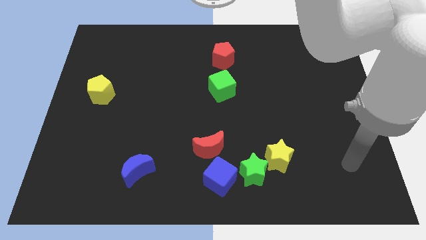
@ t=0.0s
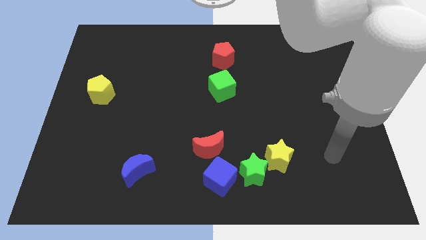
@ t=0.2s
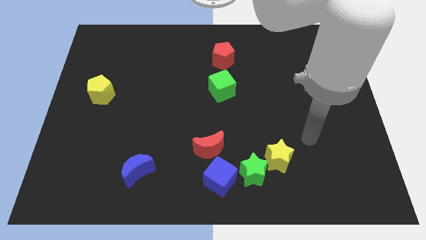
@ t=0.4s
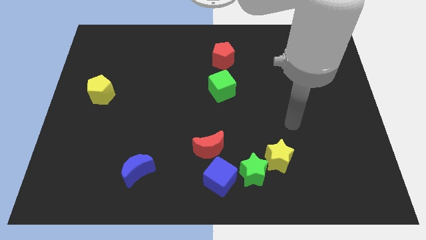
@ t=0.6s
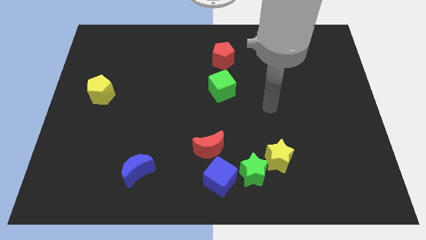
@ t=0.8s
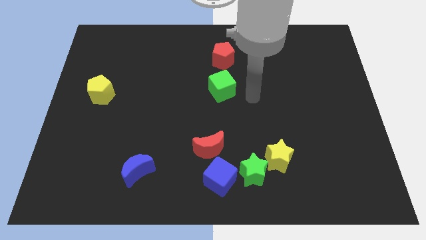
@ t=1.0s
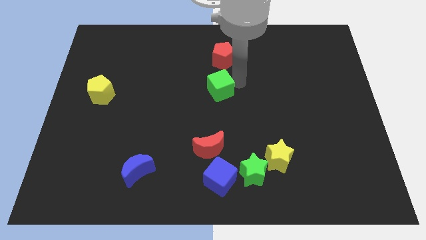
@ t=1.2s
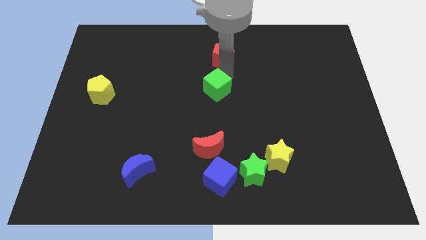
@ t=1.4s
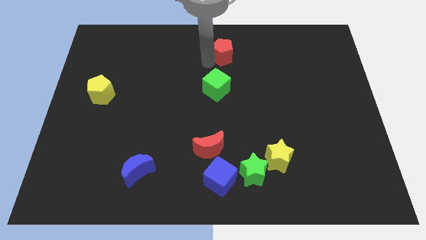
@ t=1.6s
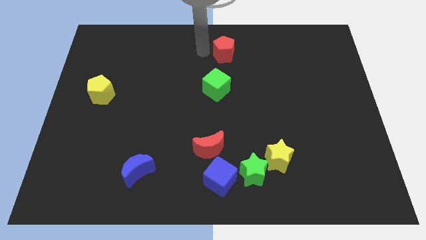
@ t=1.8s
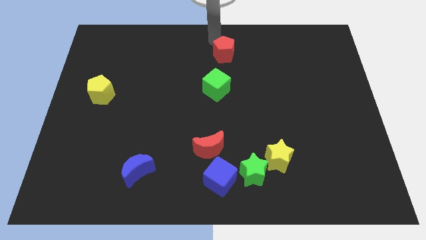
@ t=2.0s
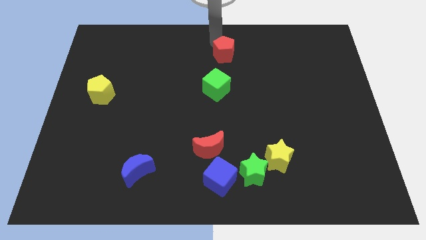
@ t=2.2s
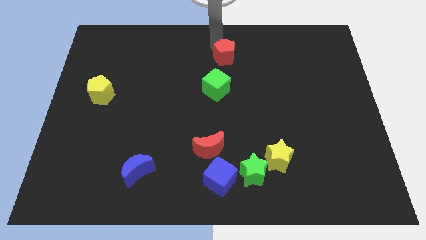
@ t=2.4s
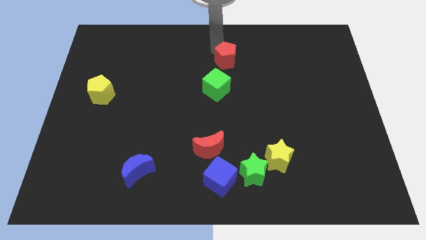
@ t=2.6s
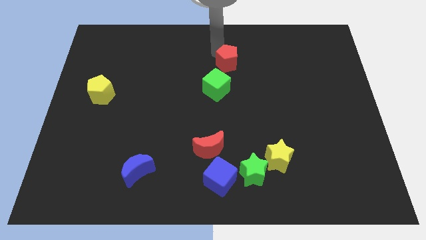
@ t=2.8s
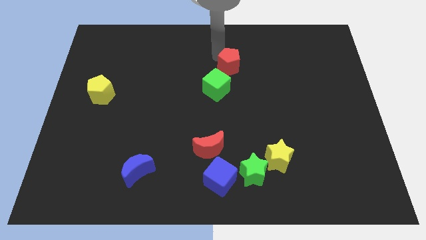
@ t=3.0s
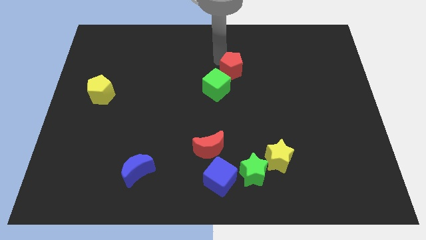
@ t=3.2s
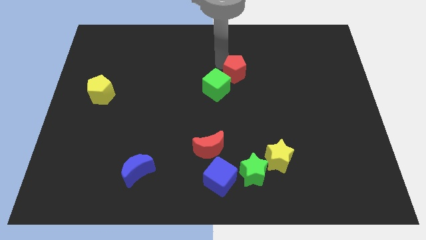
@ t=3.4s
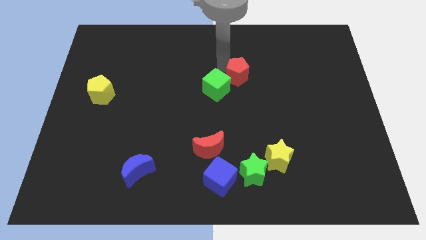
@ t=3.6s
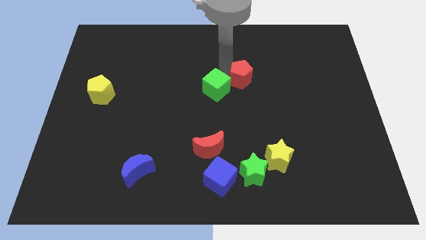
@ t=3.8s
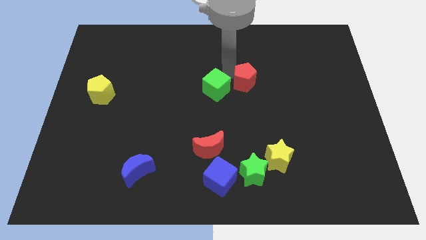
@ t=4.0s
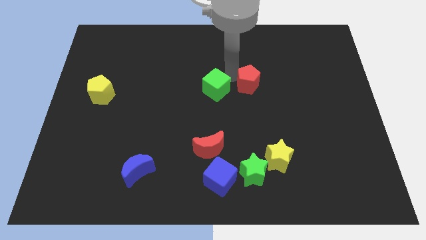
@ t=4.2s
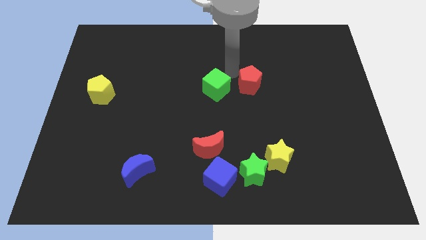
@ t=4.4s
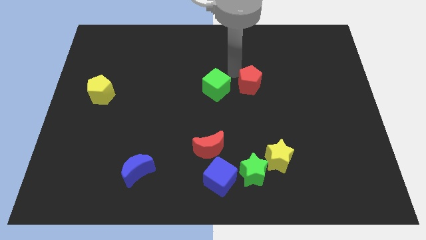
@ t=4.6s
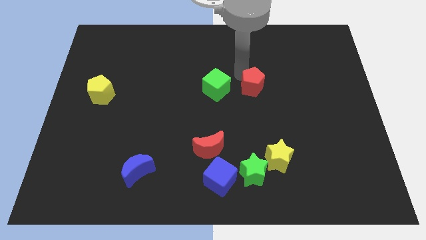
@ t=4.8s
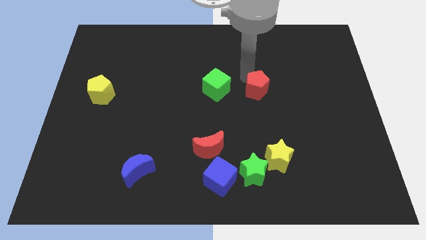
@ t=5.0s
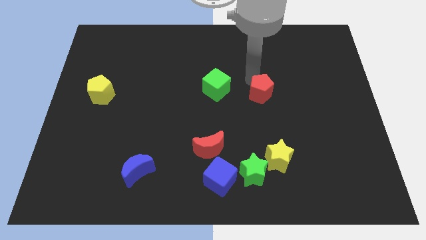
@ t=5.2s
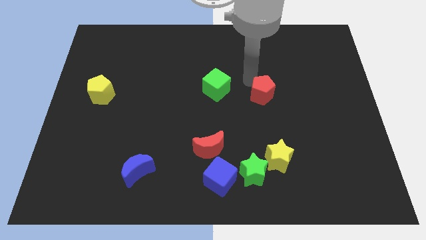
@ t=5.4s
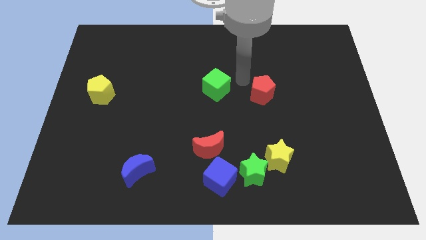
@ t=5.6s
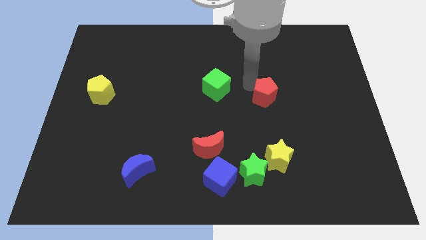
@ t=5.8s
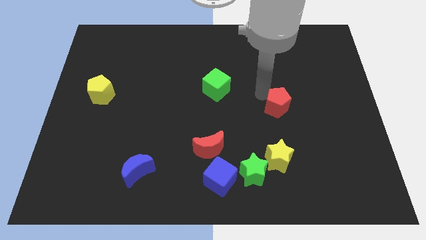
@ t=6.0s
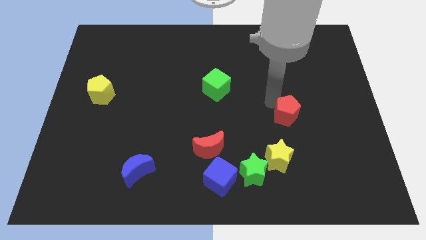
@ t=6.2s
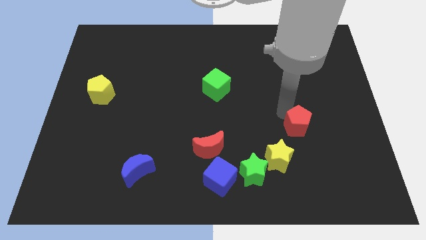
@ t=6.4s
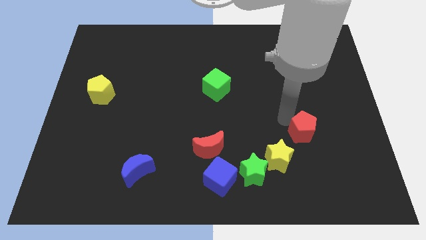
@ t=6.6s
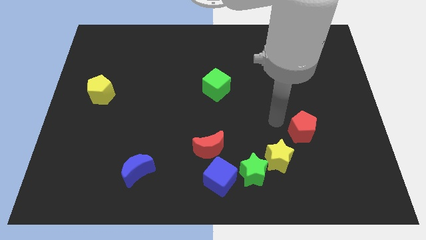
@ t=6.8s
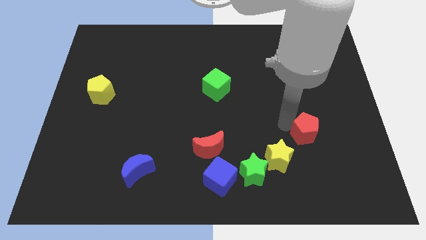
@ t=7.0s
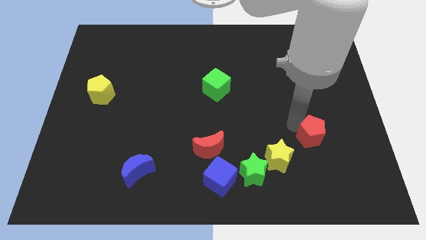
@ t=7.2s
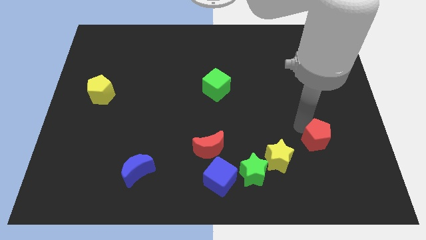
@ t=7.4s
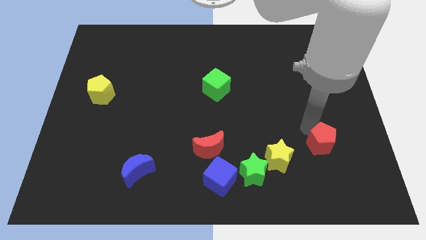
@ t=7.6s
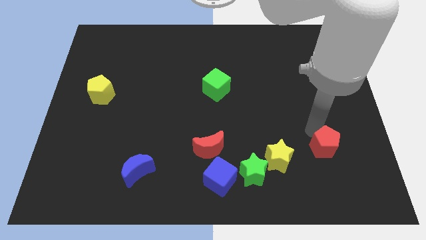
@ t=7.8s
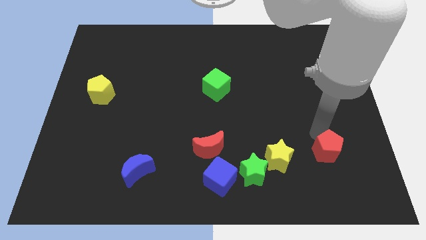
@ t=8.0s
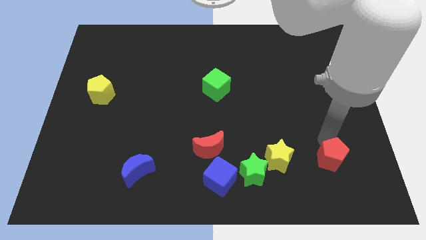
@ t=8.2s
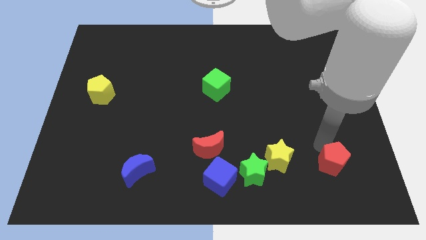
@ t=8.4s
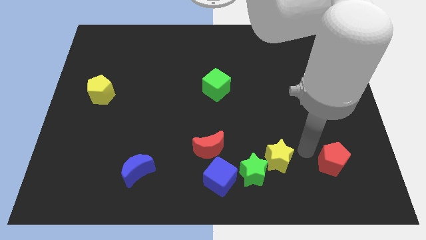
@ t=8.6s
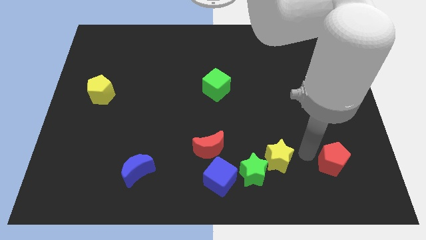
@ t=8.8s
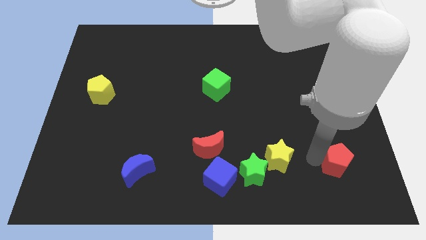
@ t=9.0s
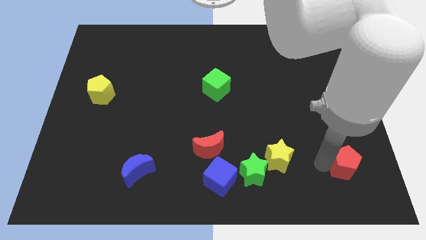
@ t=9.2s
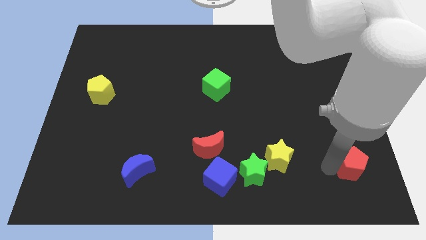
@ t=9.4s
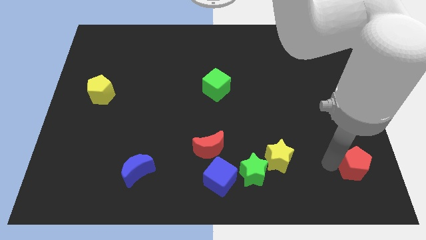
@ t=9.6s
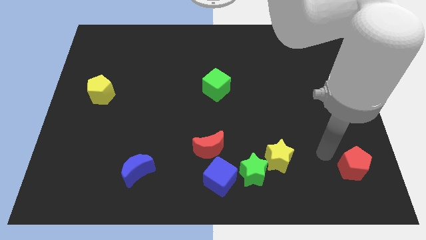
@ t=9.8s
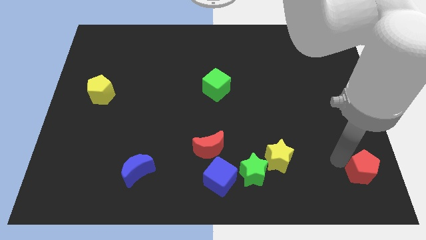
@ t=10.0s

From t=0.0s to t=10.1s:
put the red pentagon to the bottom right of the board

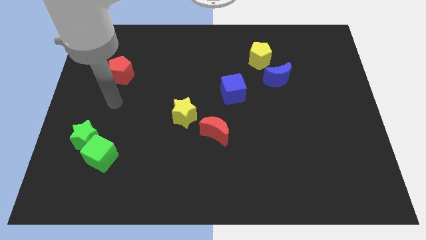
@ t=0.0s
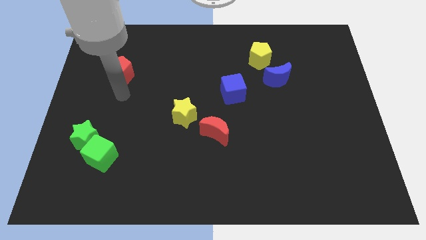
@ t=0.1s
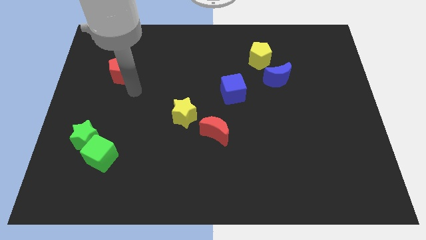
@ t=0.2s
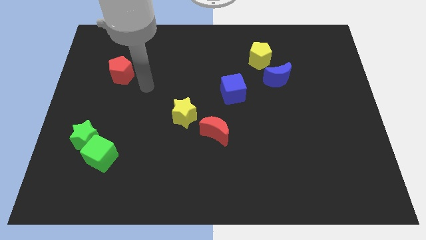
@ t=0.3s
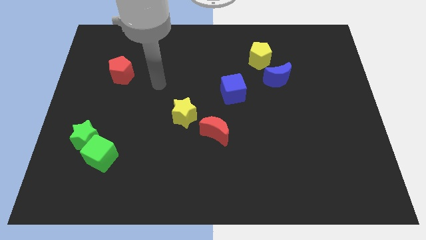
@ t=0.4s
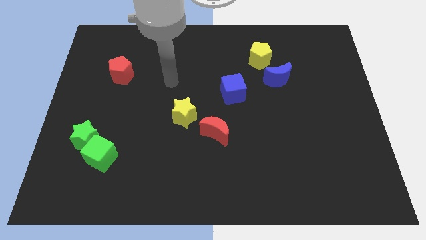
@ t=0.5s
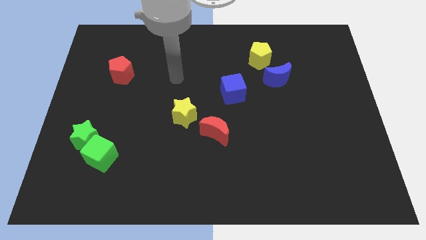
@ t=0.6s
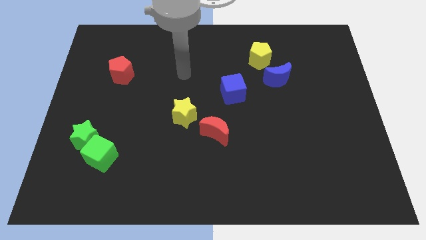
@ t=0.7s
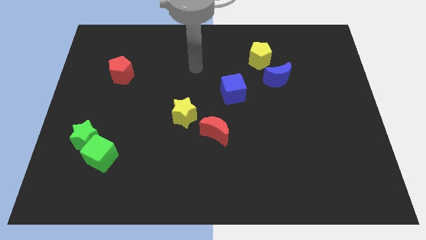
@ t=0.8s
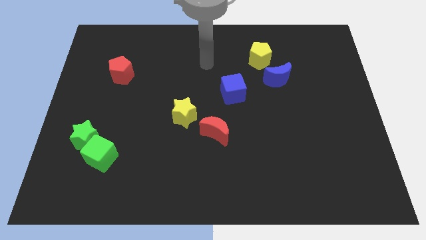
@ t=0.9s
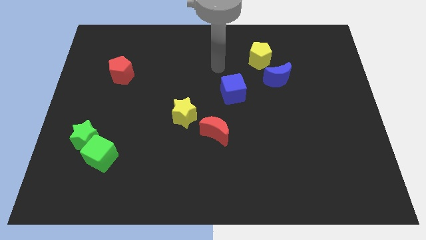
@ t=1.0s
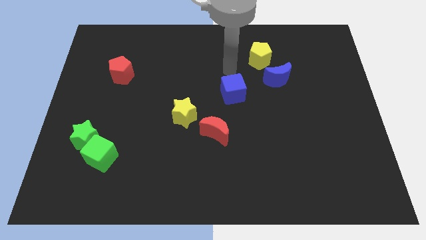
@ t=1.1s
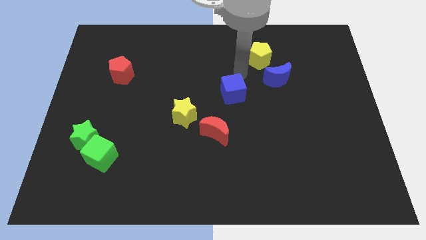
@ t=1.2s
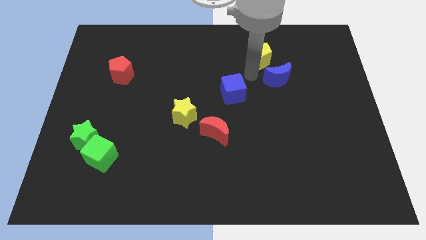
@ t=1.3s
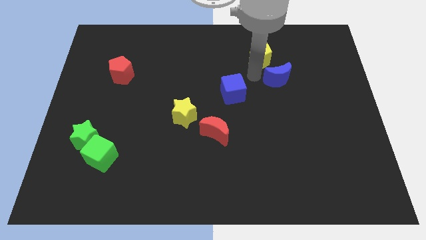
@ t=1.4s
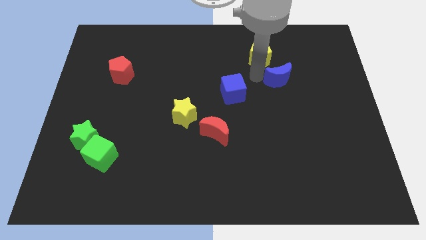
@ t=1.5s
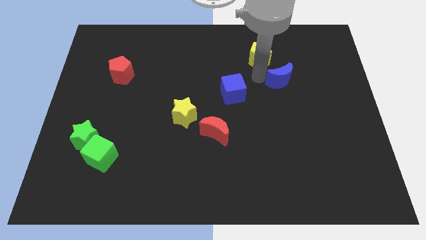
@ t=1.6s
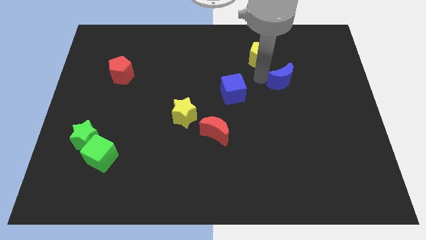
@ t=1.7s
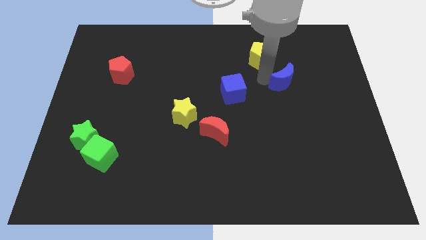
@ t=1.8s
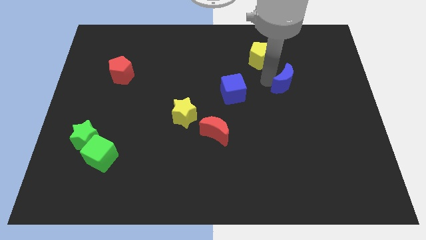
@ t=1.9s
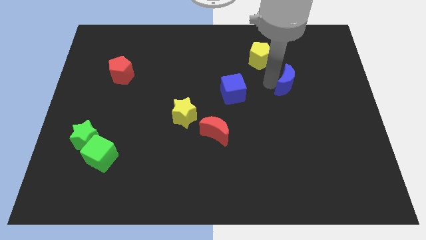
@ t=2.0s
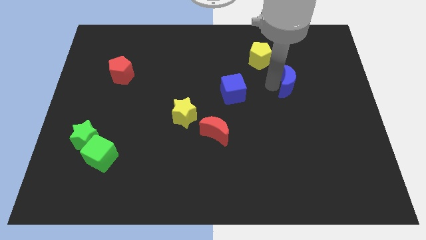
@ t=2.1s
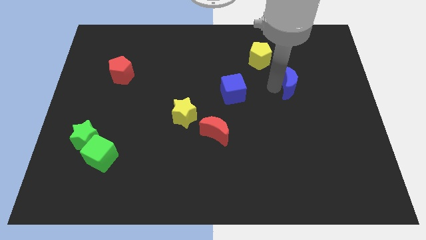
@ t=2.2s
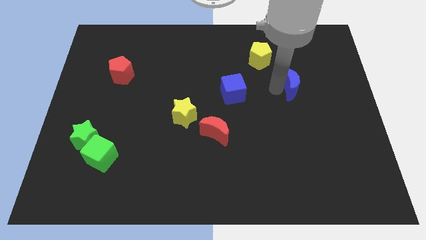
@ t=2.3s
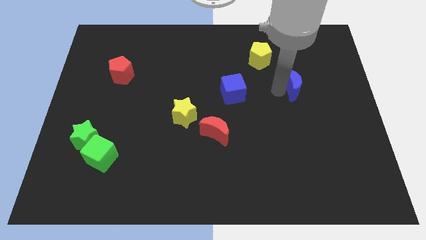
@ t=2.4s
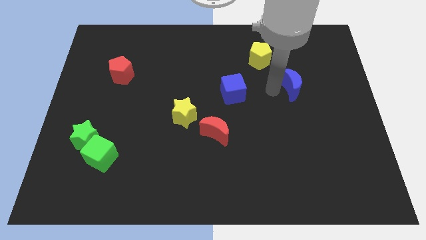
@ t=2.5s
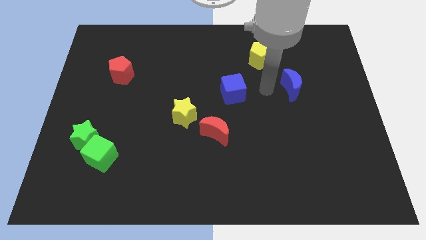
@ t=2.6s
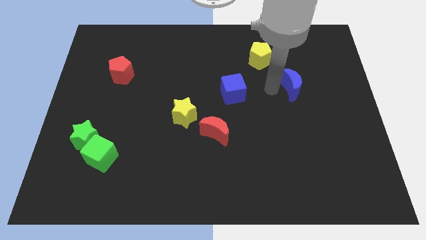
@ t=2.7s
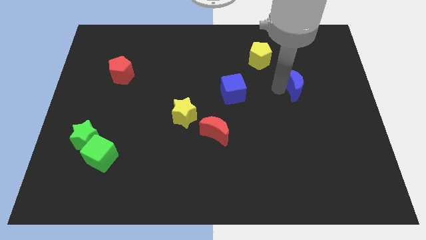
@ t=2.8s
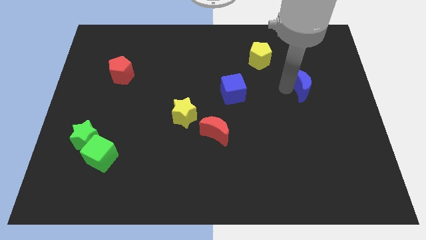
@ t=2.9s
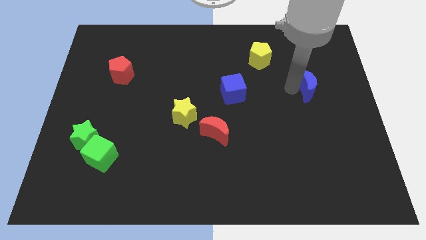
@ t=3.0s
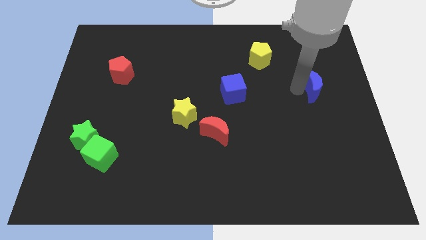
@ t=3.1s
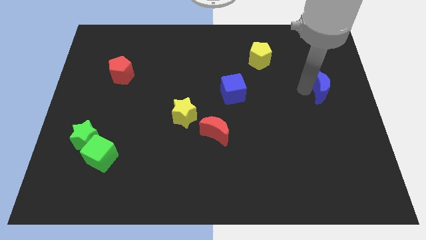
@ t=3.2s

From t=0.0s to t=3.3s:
move the blue moon to the right side of the board
